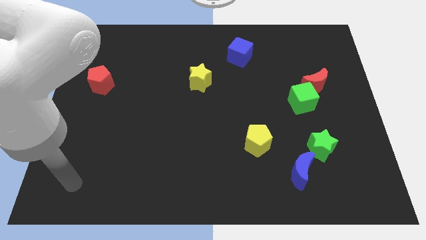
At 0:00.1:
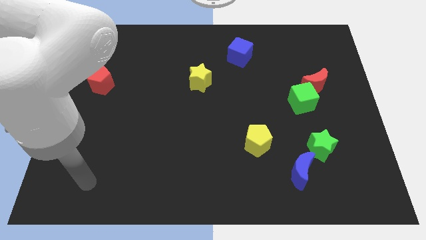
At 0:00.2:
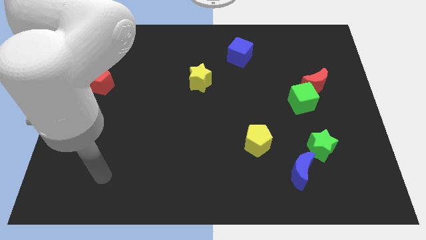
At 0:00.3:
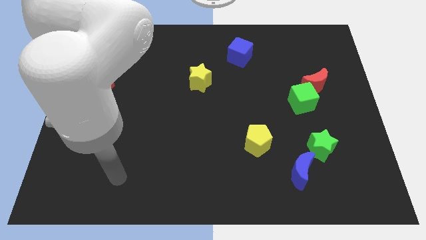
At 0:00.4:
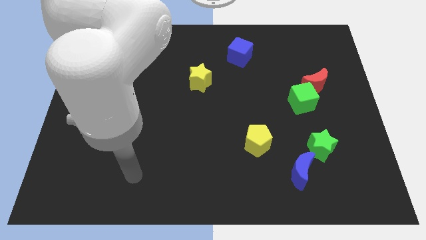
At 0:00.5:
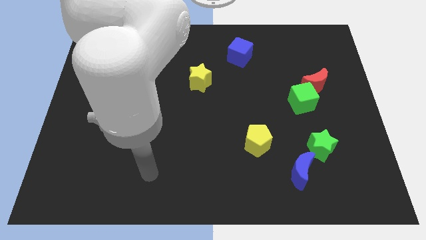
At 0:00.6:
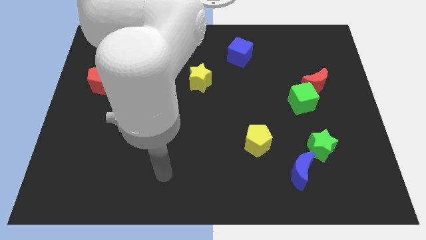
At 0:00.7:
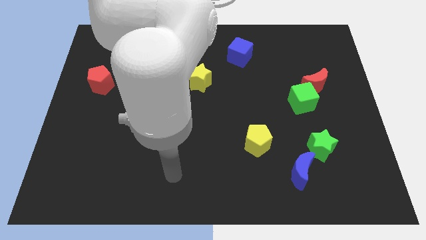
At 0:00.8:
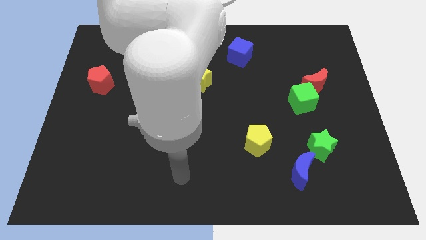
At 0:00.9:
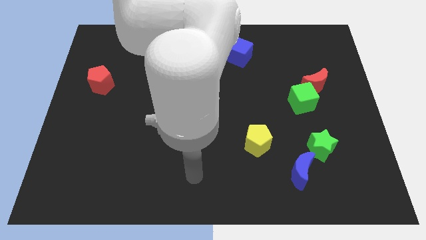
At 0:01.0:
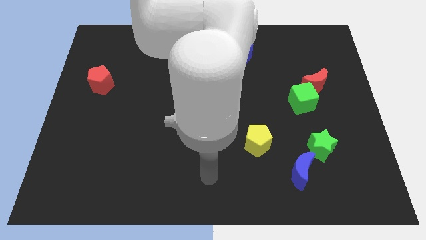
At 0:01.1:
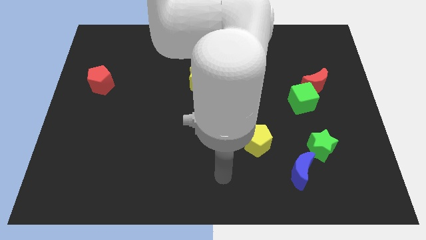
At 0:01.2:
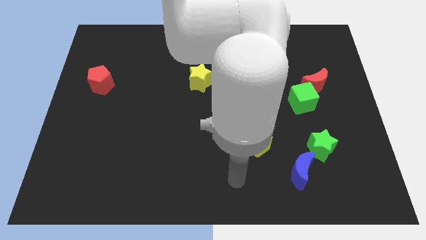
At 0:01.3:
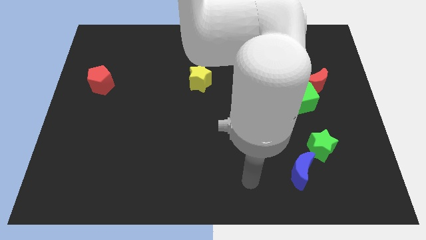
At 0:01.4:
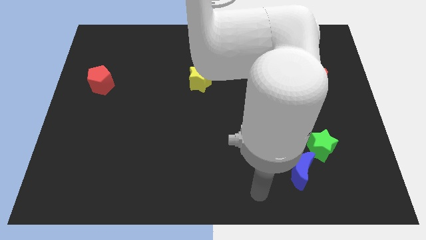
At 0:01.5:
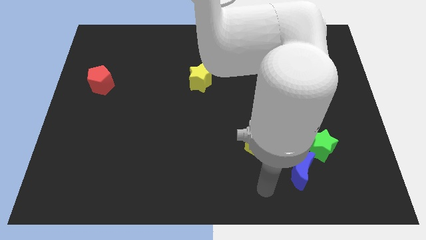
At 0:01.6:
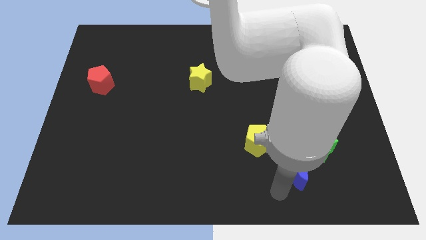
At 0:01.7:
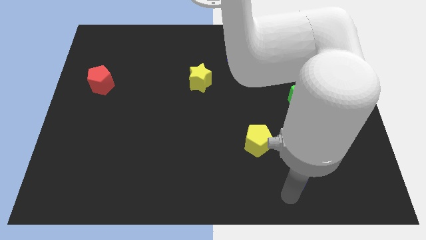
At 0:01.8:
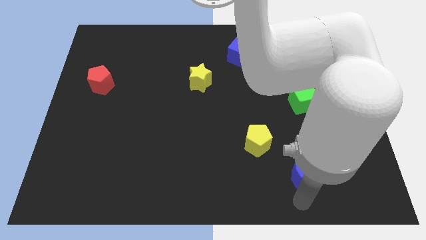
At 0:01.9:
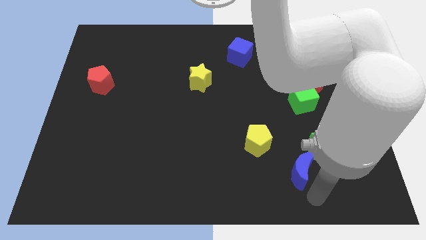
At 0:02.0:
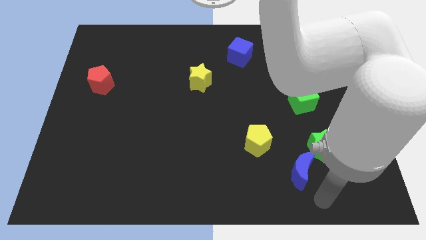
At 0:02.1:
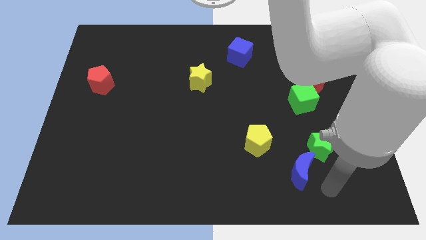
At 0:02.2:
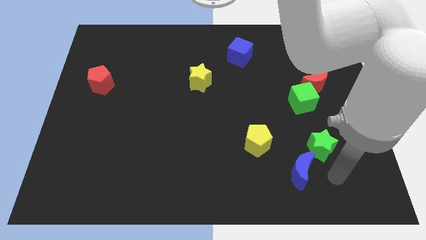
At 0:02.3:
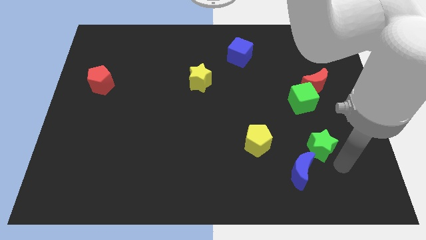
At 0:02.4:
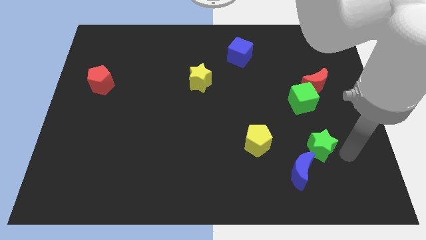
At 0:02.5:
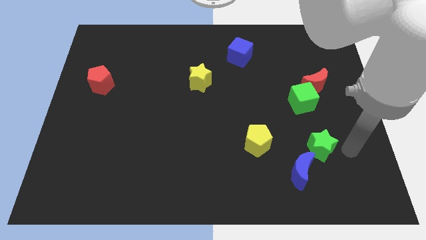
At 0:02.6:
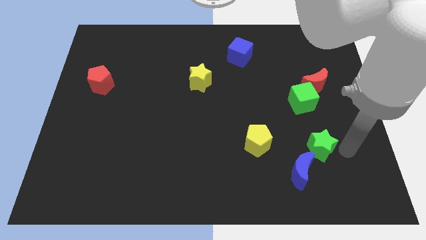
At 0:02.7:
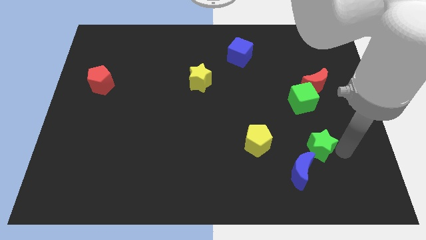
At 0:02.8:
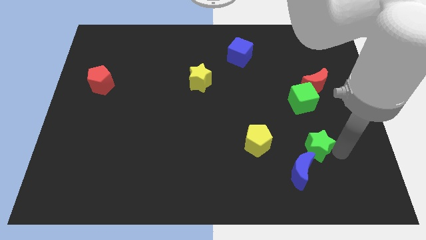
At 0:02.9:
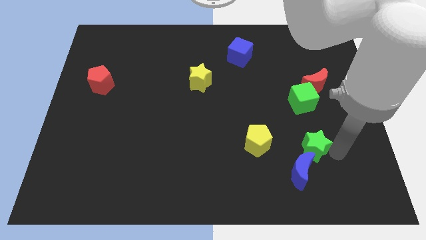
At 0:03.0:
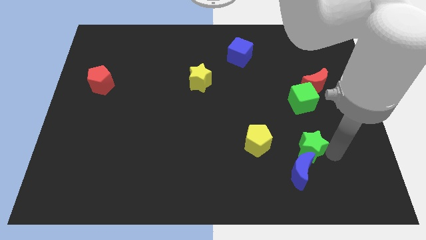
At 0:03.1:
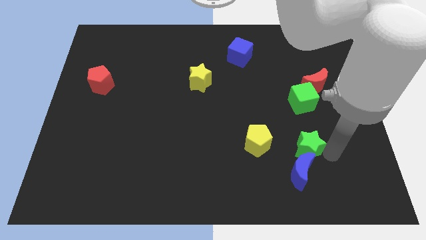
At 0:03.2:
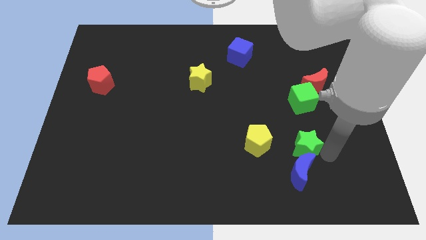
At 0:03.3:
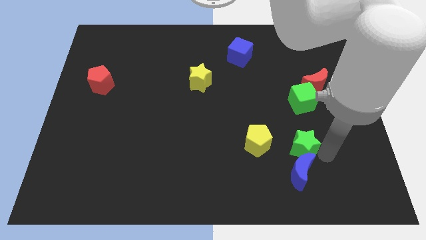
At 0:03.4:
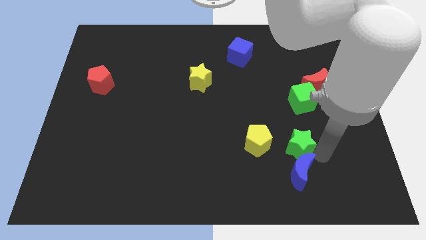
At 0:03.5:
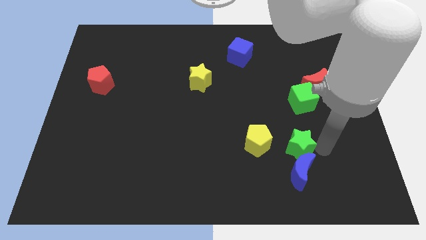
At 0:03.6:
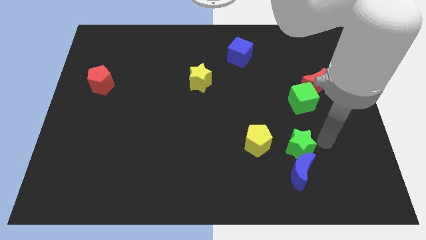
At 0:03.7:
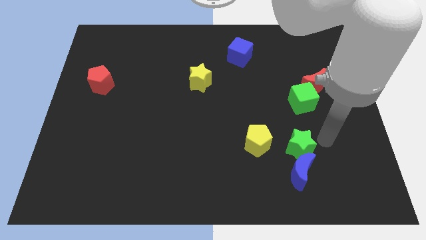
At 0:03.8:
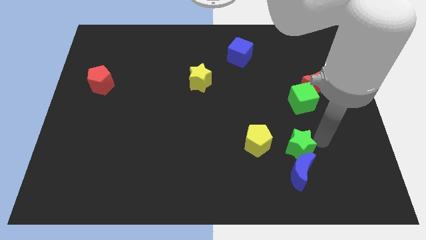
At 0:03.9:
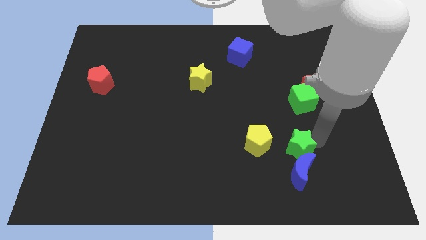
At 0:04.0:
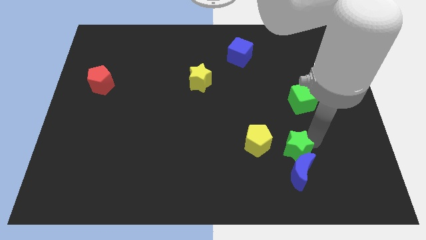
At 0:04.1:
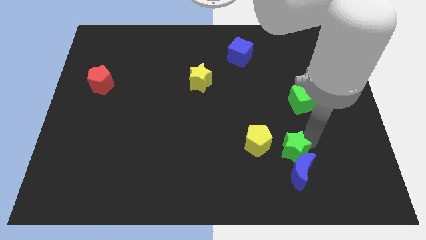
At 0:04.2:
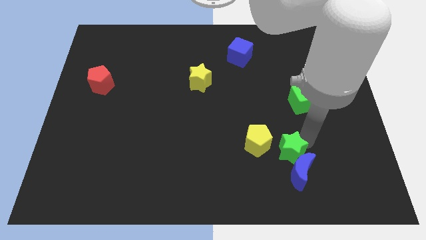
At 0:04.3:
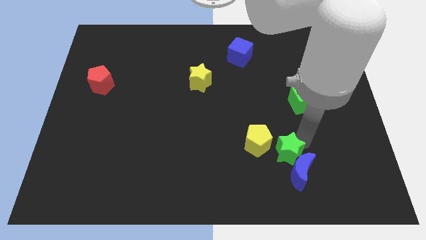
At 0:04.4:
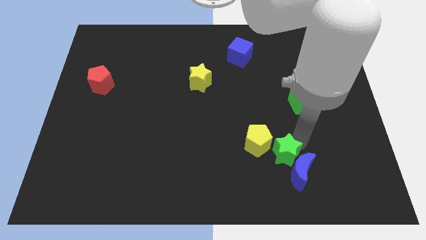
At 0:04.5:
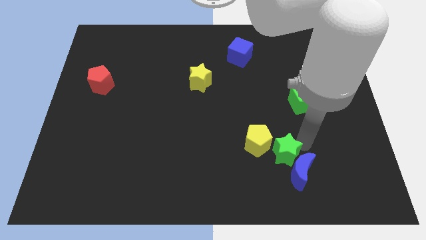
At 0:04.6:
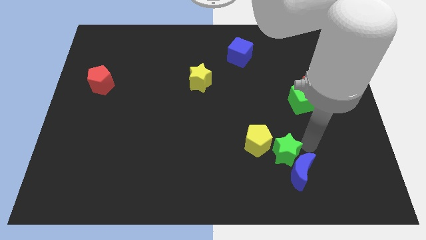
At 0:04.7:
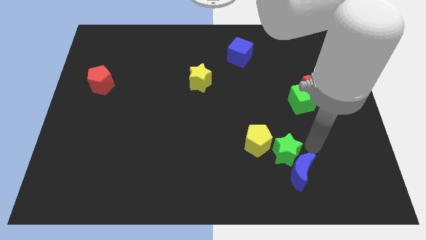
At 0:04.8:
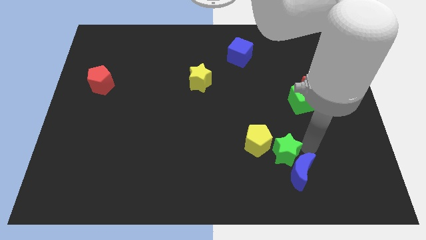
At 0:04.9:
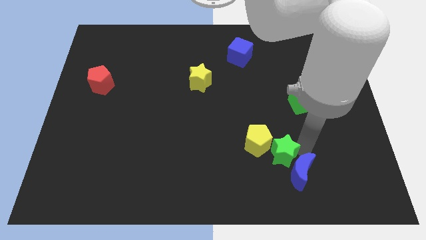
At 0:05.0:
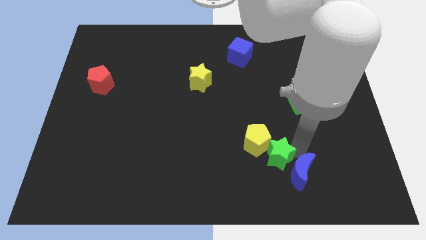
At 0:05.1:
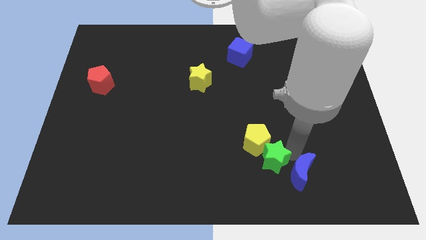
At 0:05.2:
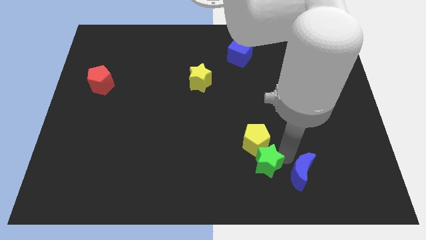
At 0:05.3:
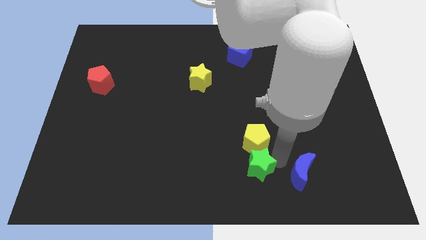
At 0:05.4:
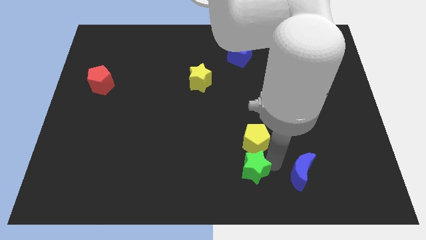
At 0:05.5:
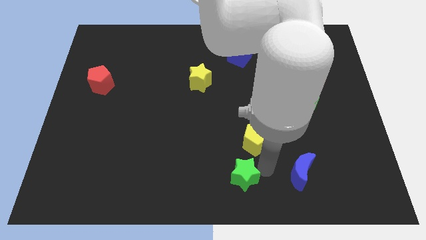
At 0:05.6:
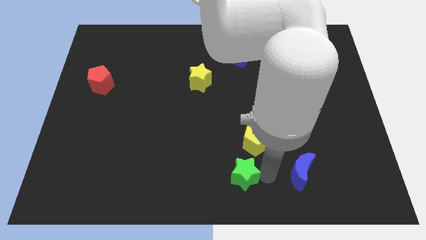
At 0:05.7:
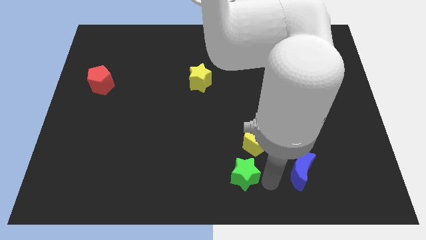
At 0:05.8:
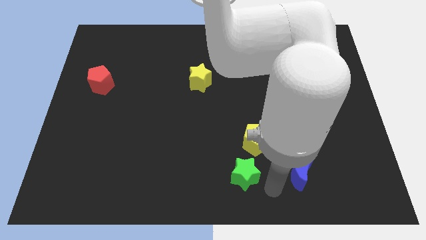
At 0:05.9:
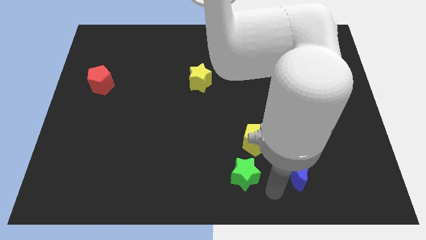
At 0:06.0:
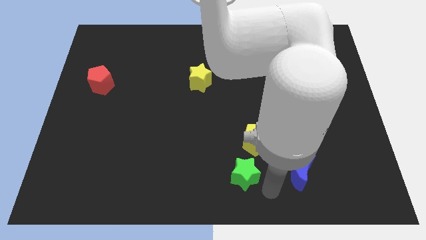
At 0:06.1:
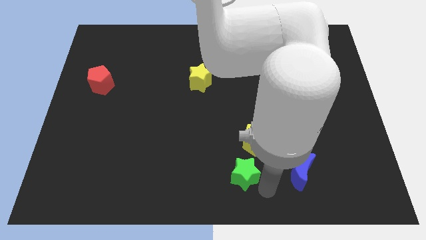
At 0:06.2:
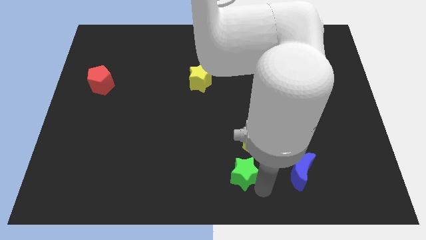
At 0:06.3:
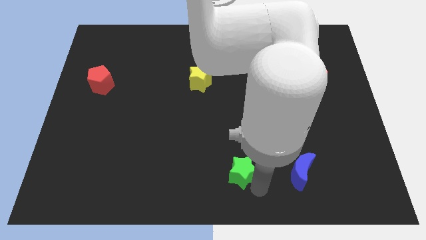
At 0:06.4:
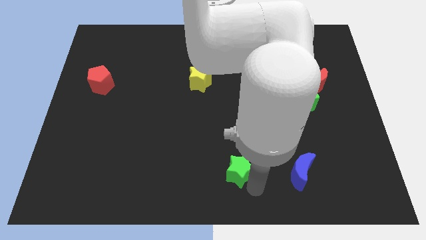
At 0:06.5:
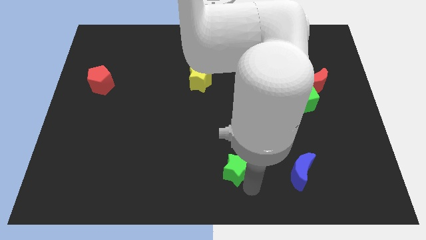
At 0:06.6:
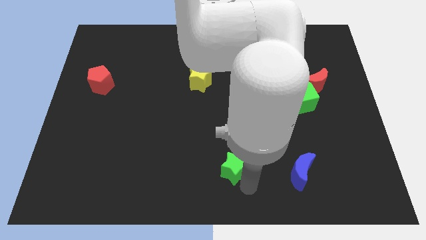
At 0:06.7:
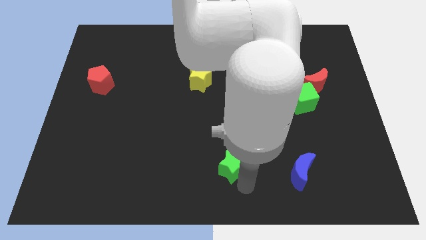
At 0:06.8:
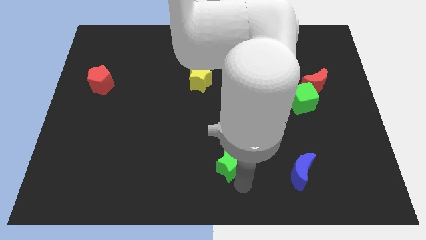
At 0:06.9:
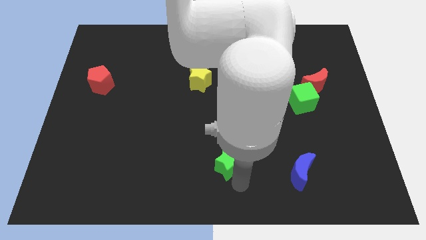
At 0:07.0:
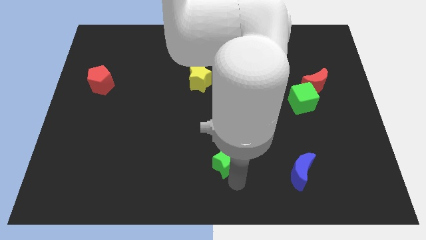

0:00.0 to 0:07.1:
push the green star left

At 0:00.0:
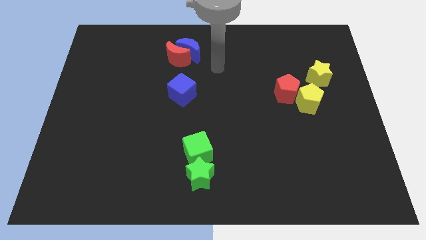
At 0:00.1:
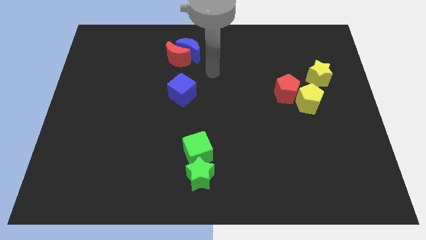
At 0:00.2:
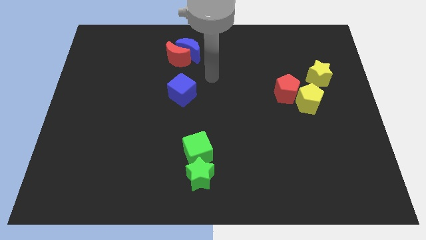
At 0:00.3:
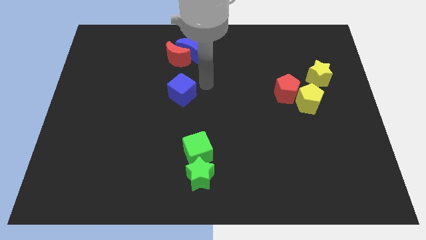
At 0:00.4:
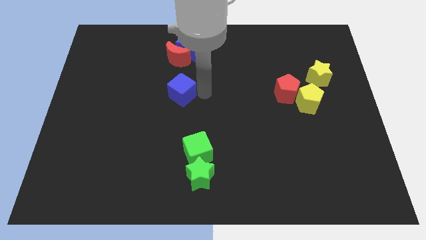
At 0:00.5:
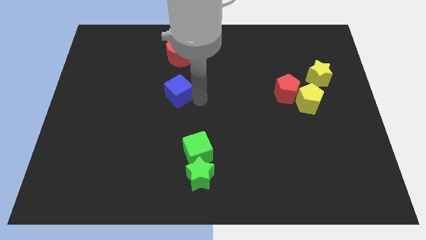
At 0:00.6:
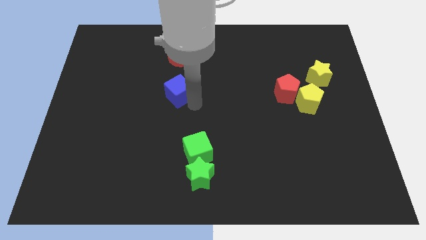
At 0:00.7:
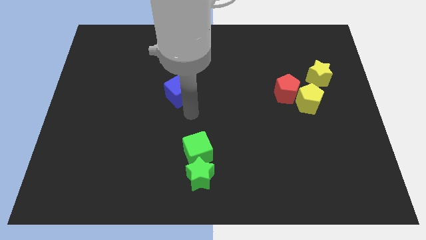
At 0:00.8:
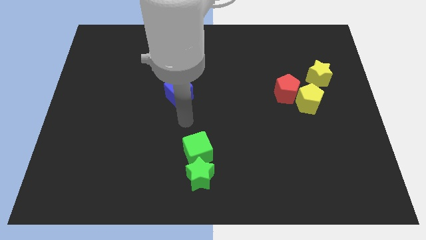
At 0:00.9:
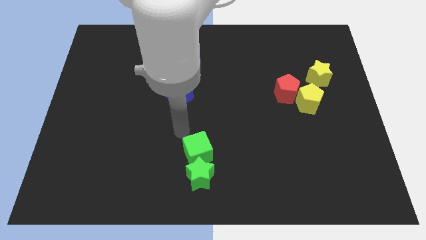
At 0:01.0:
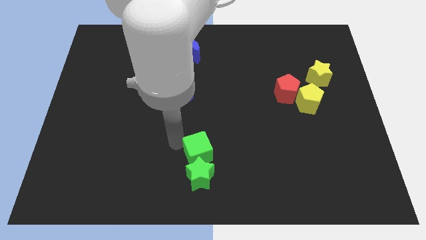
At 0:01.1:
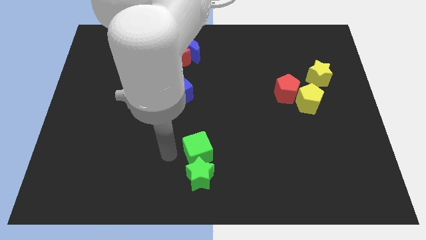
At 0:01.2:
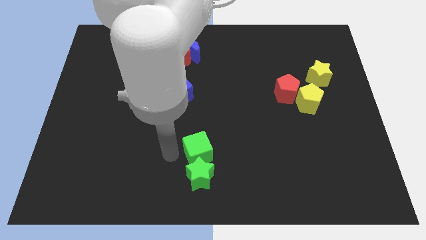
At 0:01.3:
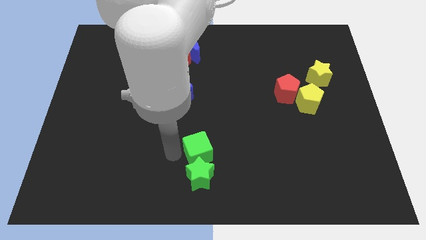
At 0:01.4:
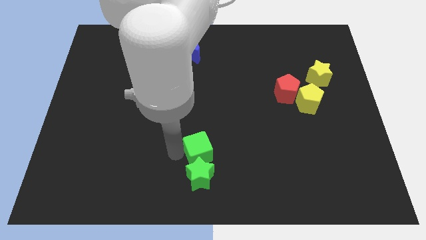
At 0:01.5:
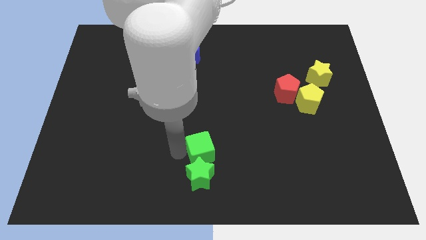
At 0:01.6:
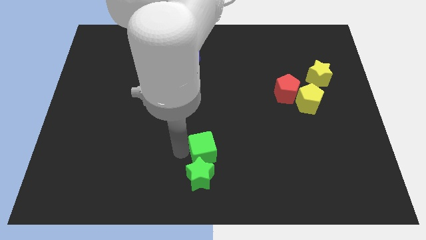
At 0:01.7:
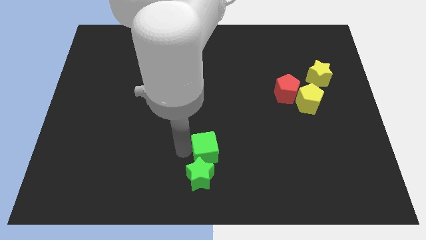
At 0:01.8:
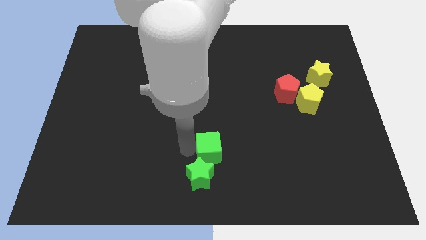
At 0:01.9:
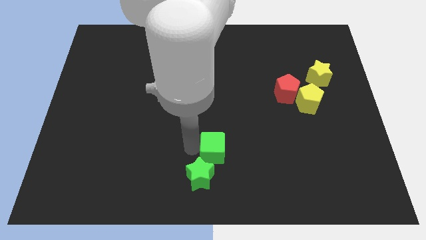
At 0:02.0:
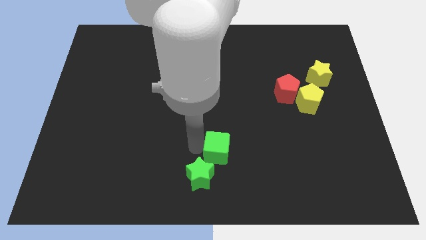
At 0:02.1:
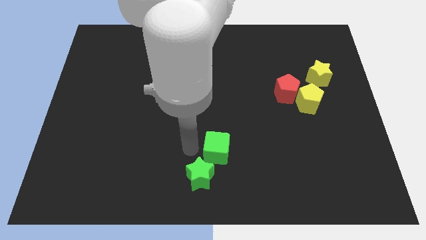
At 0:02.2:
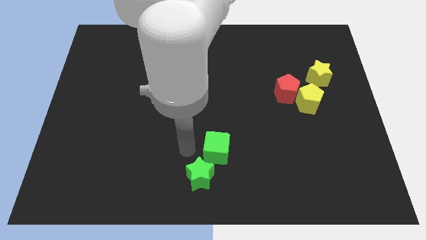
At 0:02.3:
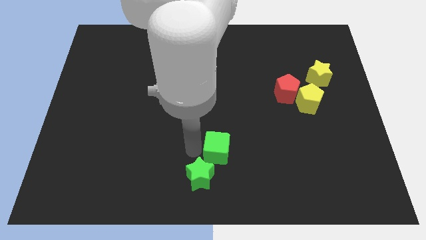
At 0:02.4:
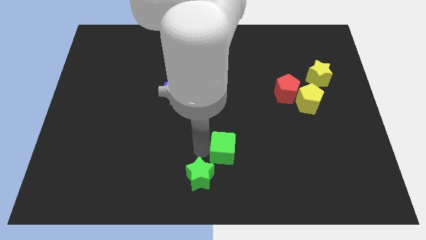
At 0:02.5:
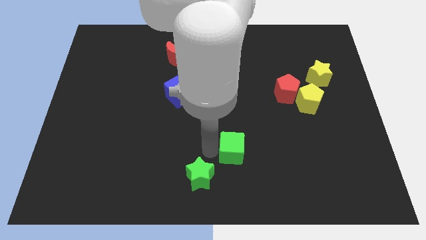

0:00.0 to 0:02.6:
move the green cube somewhat to the right
